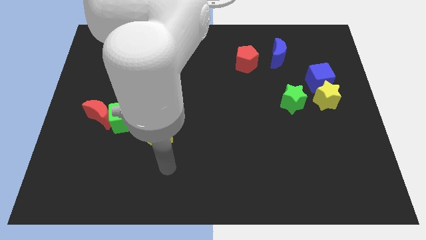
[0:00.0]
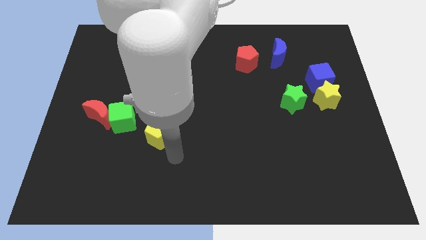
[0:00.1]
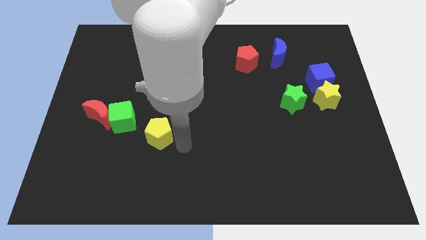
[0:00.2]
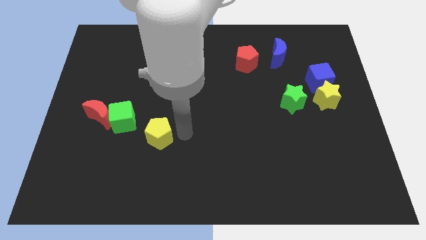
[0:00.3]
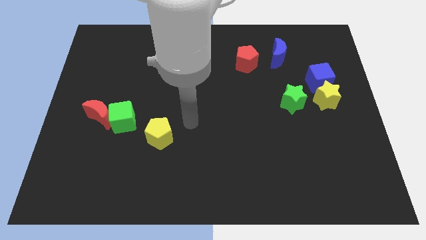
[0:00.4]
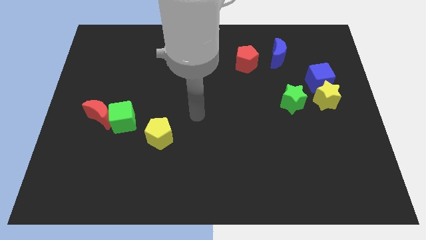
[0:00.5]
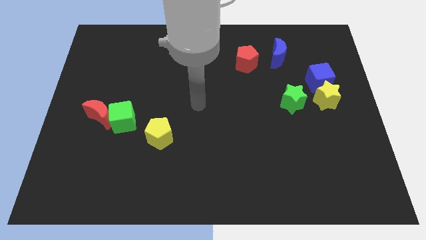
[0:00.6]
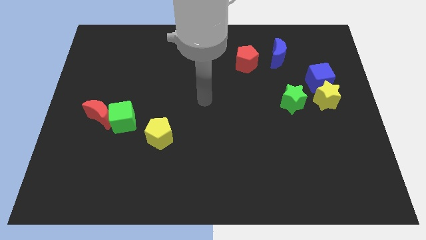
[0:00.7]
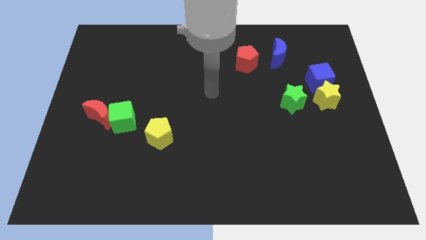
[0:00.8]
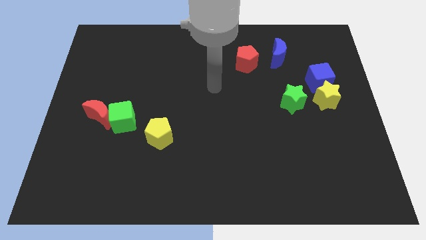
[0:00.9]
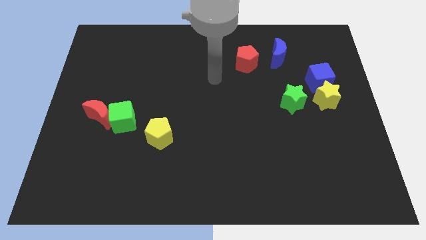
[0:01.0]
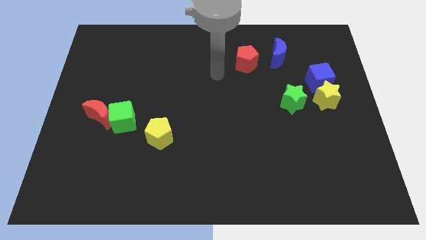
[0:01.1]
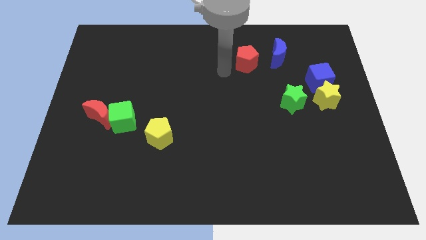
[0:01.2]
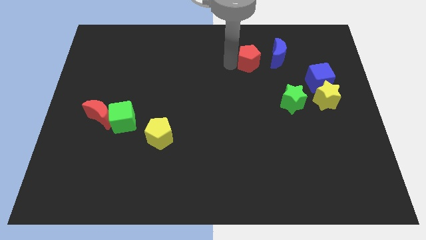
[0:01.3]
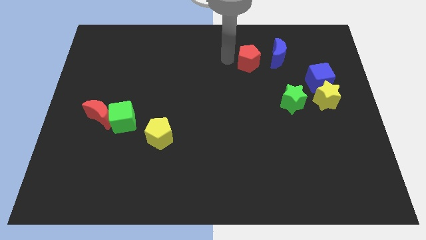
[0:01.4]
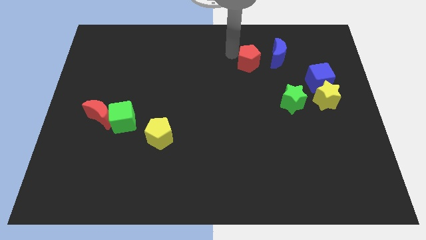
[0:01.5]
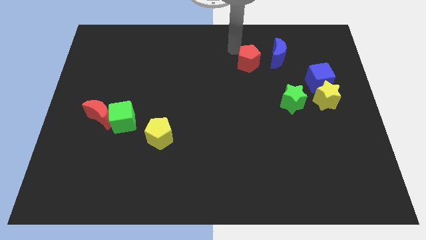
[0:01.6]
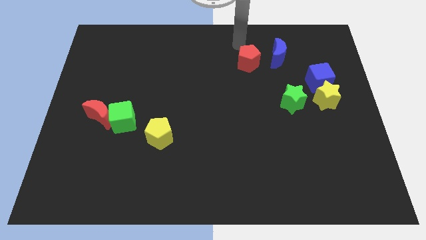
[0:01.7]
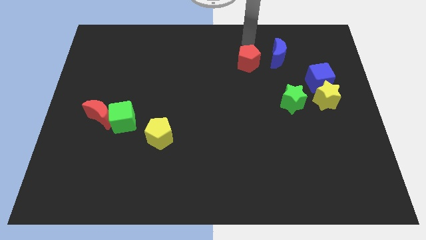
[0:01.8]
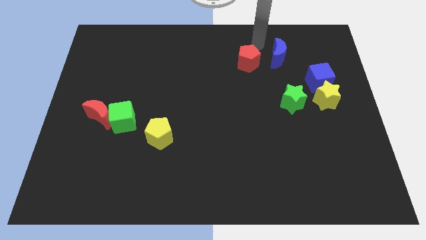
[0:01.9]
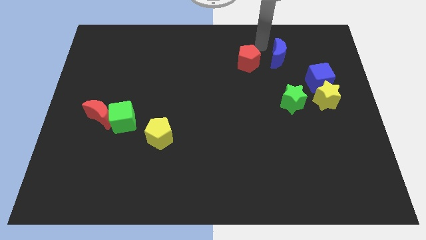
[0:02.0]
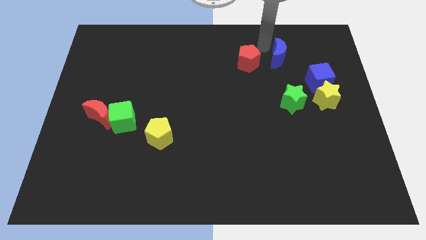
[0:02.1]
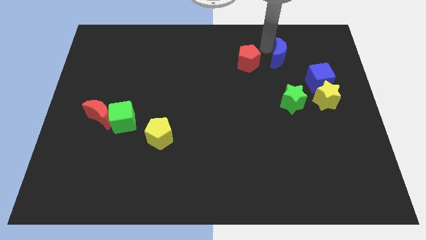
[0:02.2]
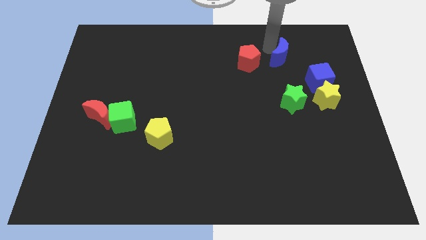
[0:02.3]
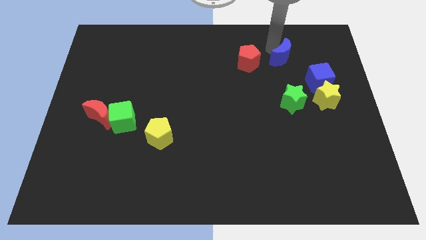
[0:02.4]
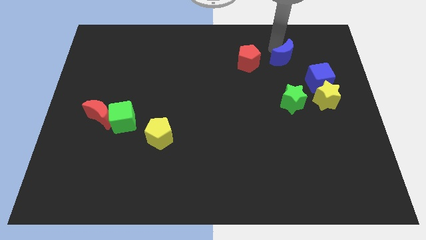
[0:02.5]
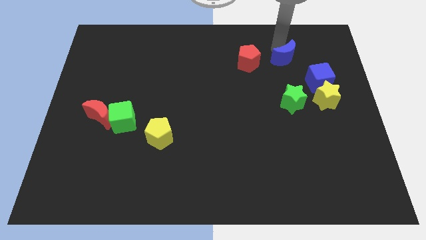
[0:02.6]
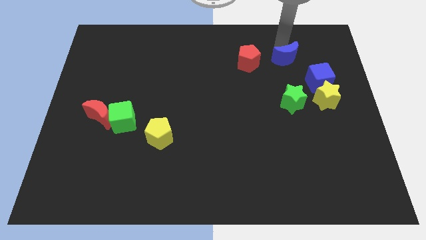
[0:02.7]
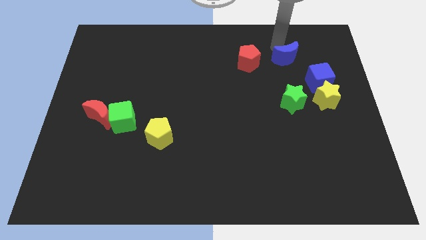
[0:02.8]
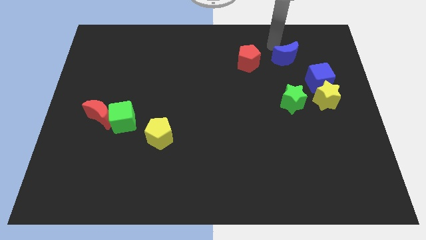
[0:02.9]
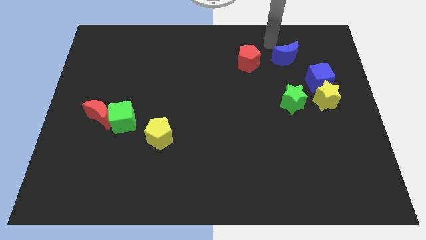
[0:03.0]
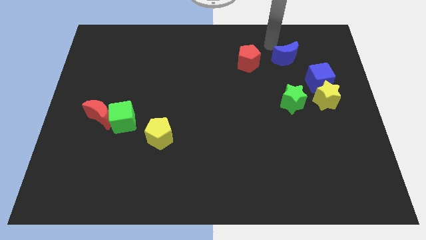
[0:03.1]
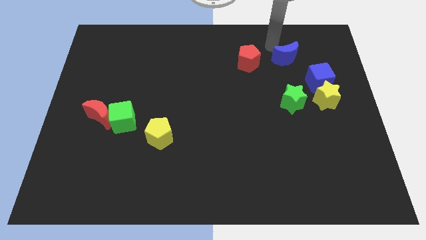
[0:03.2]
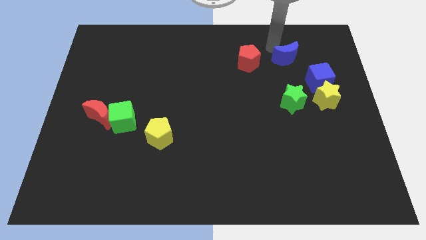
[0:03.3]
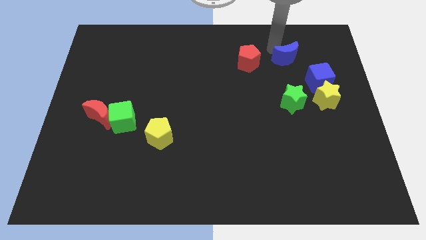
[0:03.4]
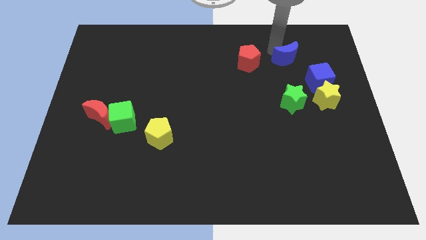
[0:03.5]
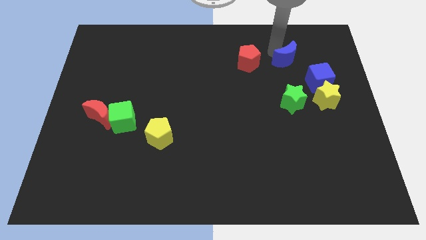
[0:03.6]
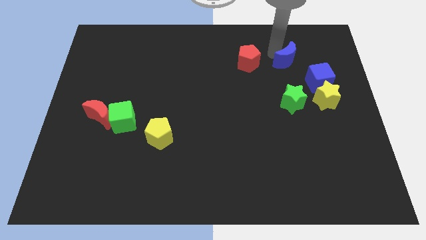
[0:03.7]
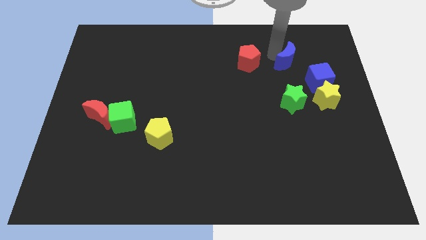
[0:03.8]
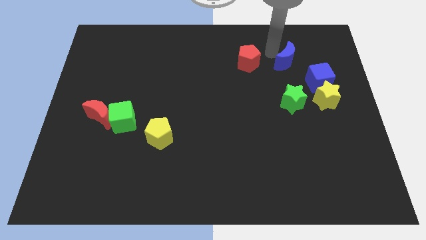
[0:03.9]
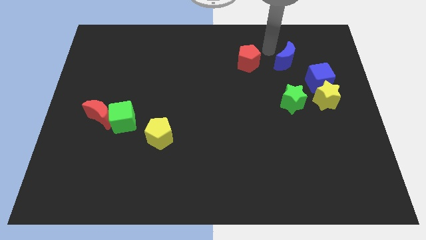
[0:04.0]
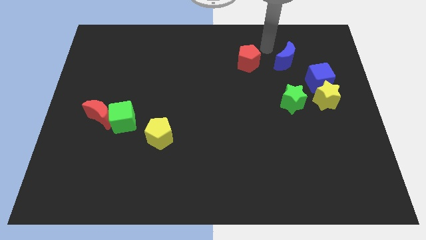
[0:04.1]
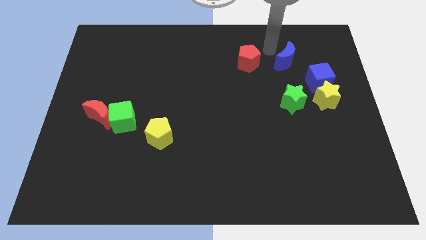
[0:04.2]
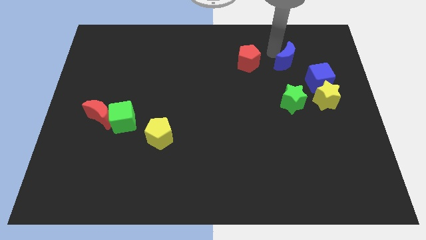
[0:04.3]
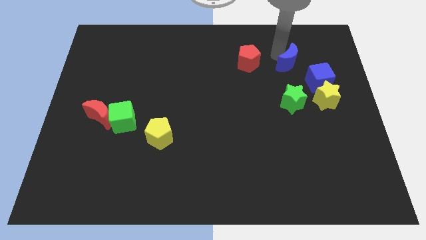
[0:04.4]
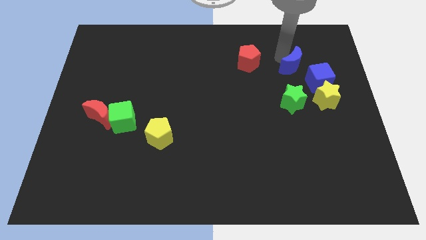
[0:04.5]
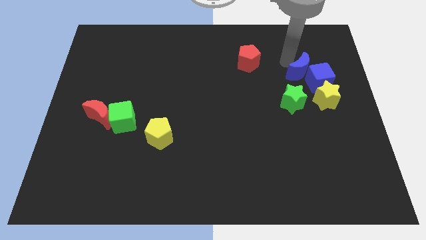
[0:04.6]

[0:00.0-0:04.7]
put the blue moon towards the blue cube

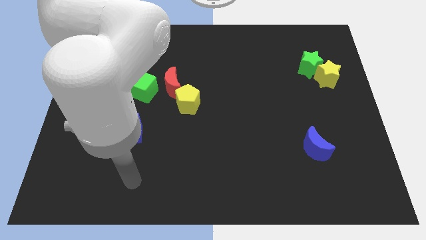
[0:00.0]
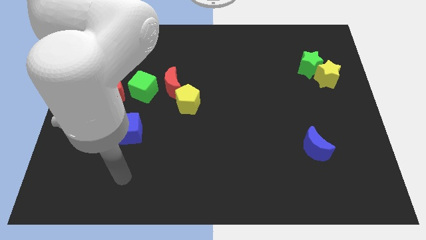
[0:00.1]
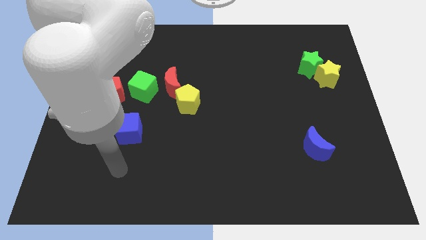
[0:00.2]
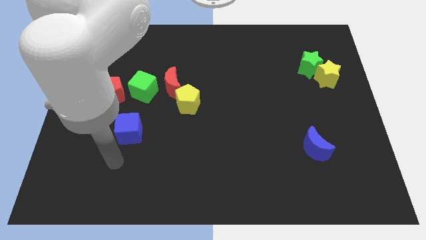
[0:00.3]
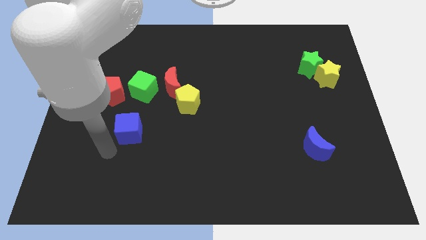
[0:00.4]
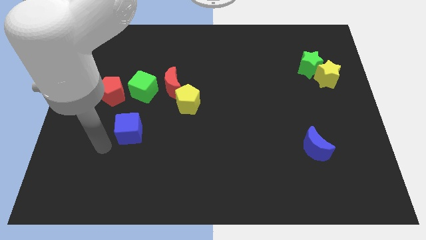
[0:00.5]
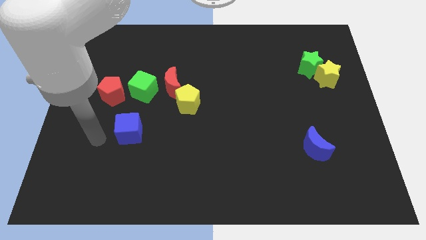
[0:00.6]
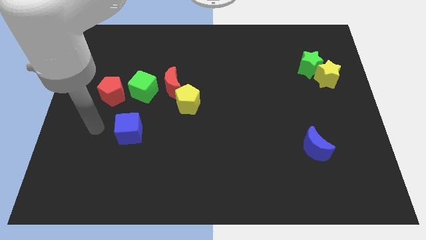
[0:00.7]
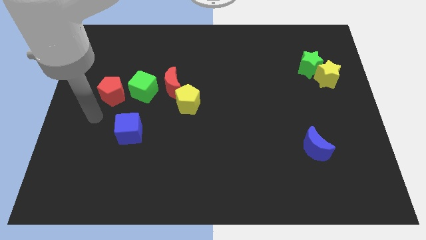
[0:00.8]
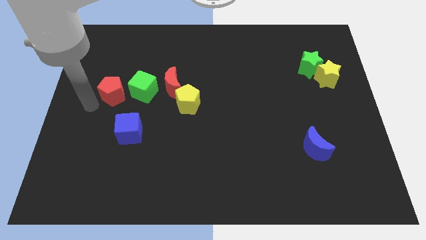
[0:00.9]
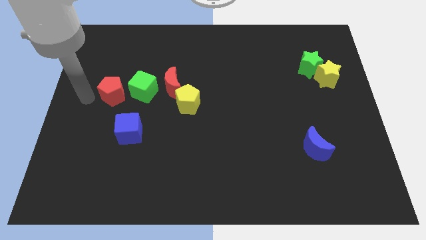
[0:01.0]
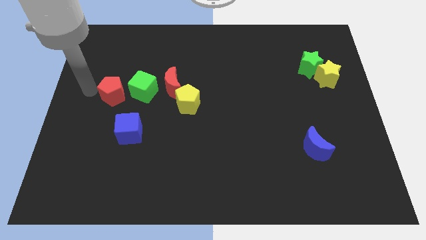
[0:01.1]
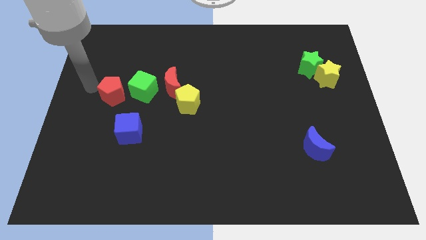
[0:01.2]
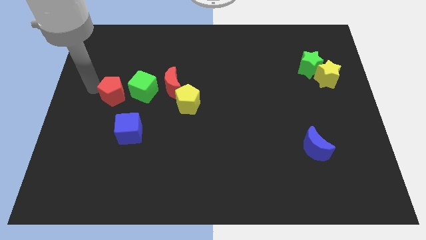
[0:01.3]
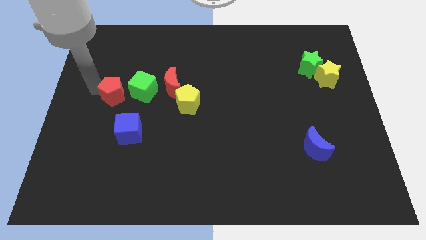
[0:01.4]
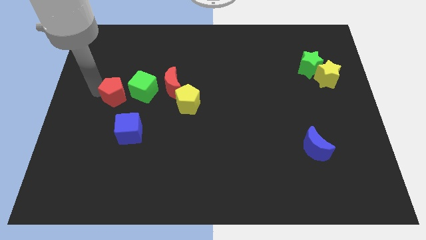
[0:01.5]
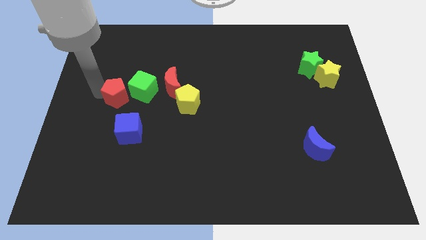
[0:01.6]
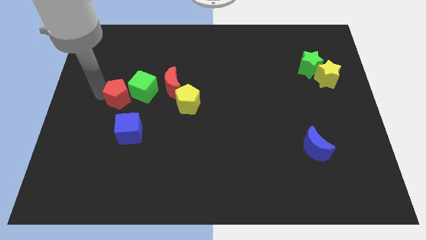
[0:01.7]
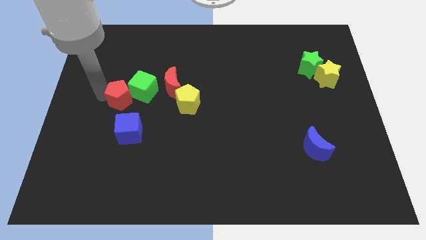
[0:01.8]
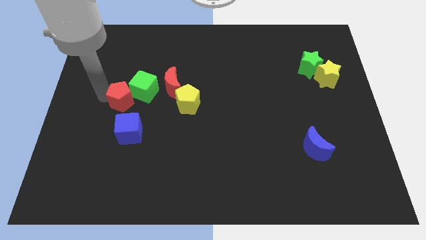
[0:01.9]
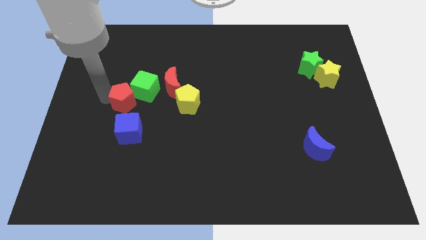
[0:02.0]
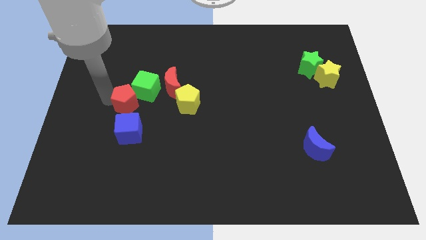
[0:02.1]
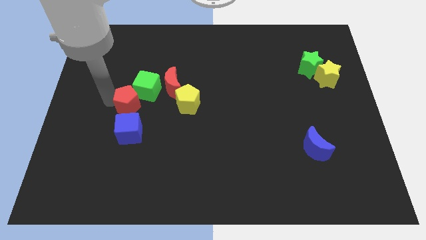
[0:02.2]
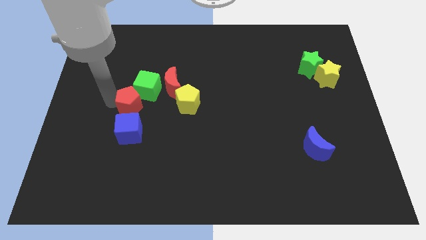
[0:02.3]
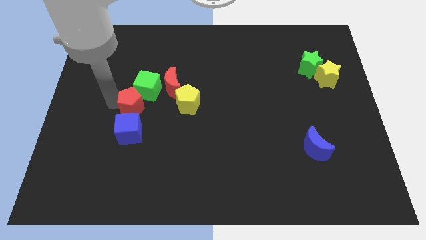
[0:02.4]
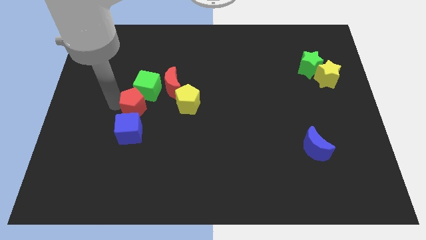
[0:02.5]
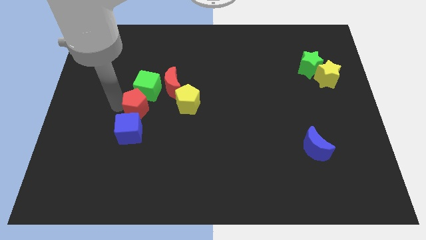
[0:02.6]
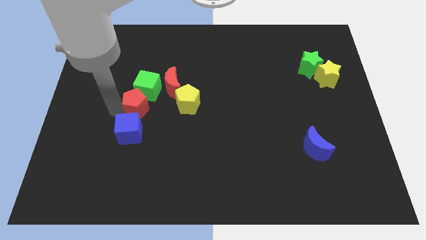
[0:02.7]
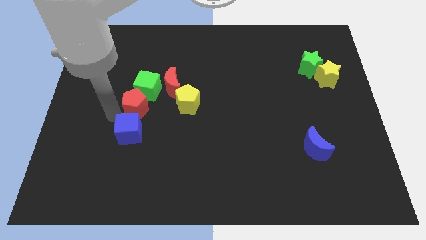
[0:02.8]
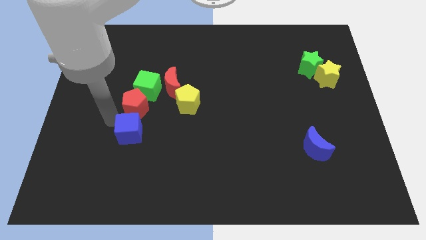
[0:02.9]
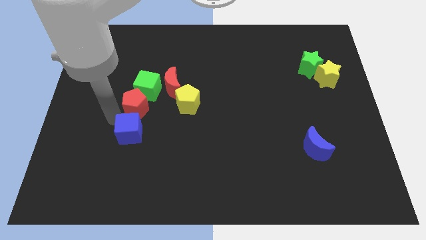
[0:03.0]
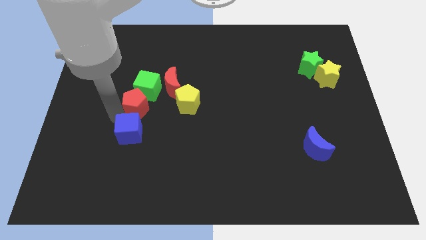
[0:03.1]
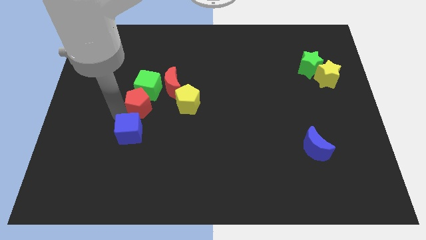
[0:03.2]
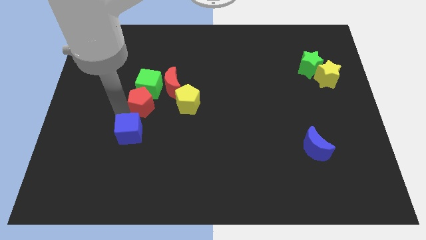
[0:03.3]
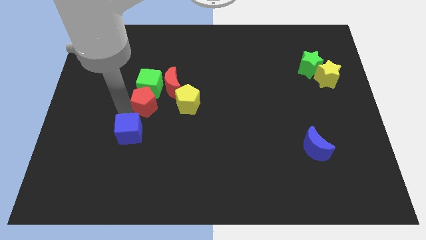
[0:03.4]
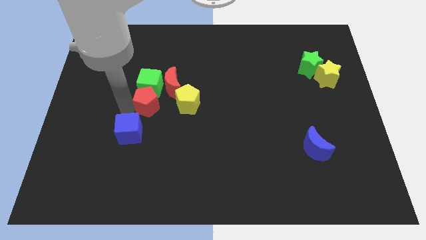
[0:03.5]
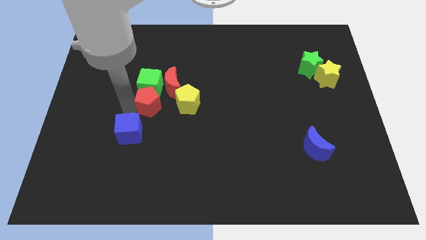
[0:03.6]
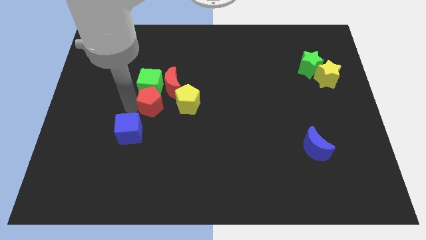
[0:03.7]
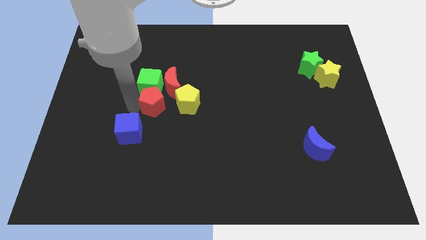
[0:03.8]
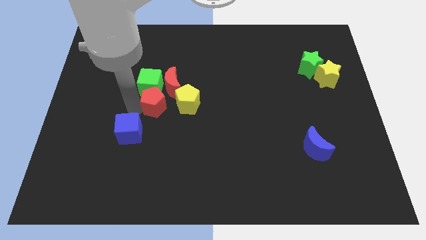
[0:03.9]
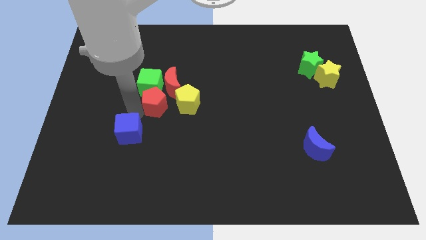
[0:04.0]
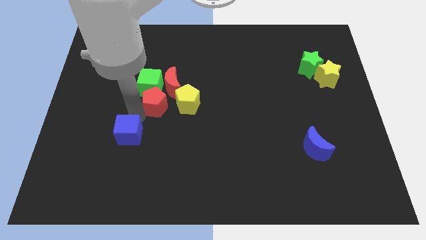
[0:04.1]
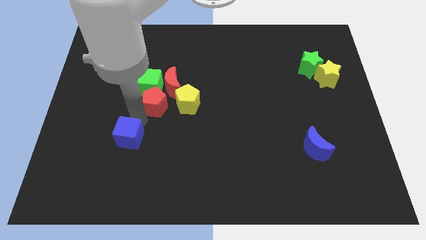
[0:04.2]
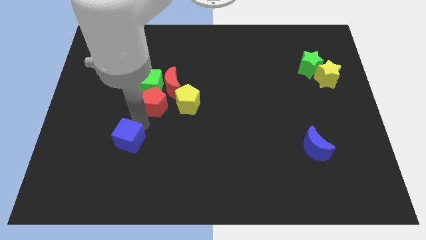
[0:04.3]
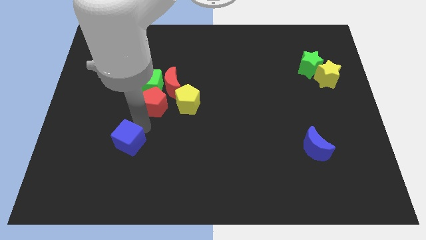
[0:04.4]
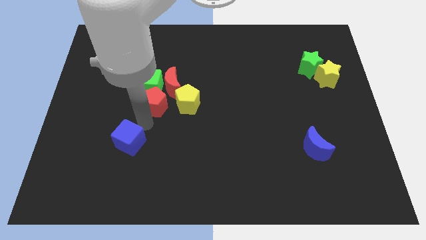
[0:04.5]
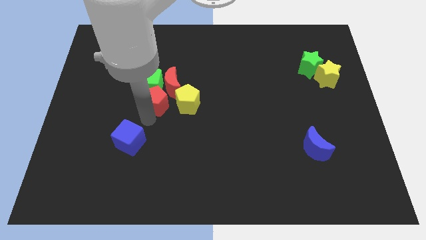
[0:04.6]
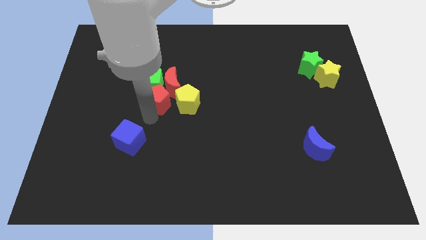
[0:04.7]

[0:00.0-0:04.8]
slide the red pentagon towards the red moon
